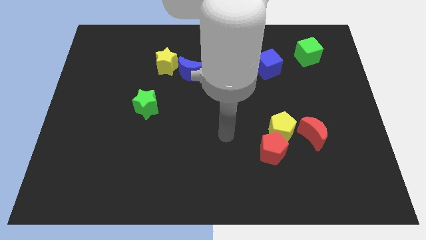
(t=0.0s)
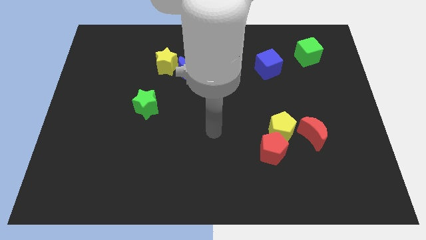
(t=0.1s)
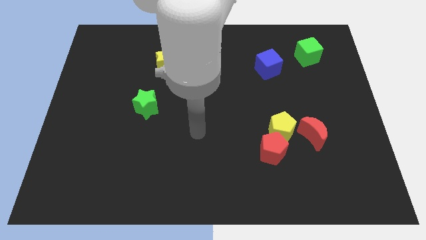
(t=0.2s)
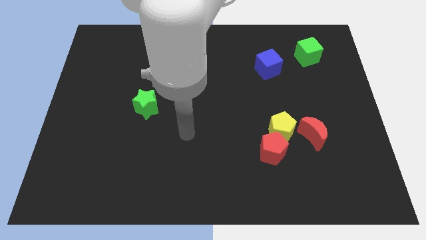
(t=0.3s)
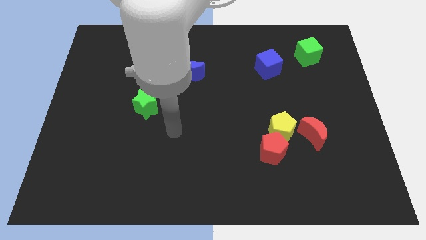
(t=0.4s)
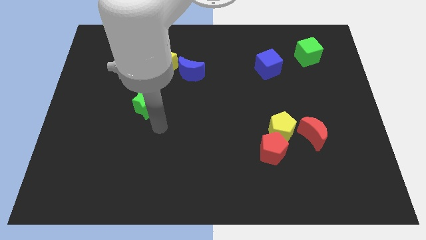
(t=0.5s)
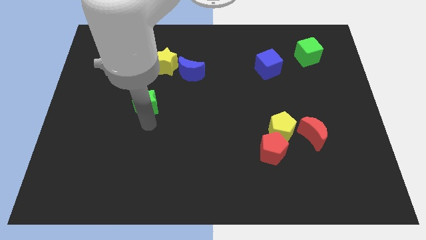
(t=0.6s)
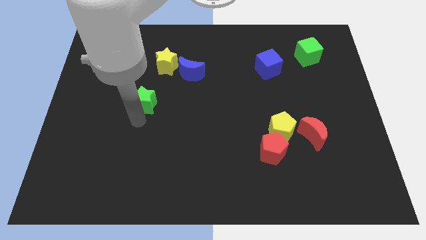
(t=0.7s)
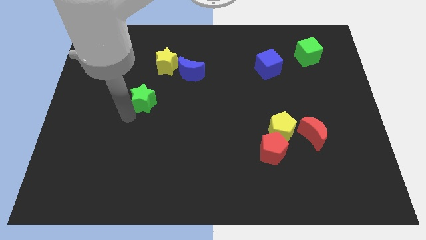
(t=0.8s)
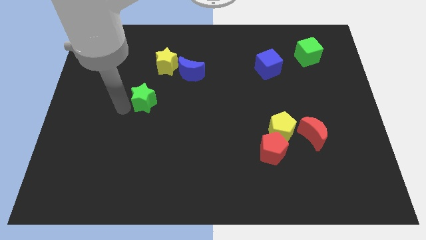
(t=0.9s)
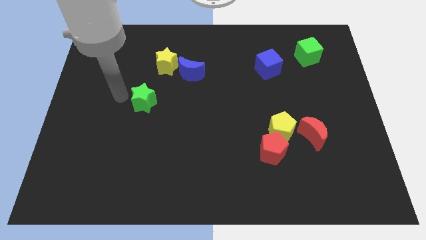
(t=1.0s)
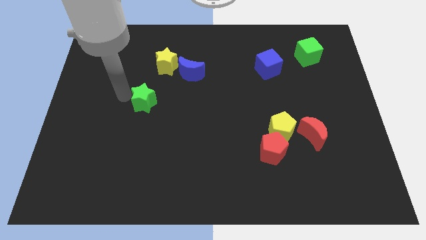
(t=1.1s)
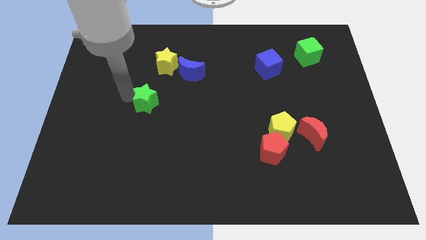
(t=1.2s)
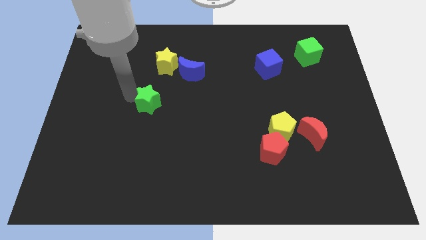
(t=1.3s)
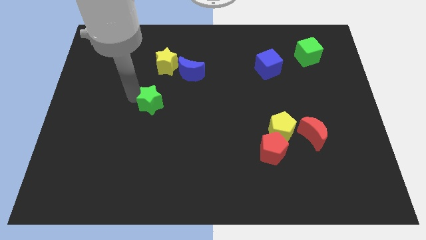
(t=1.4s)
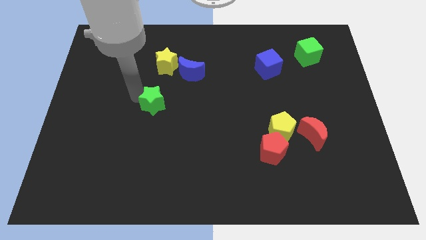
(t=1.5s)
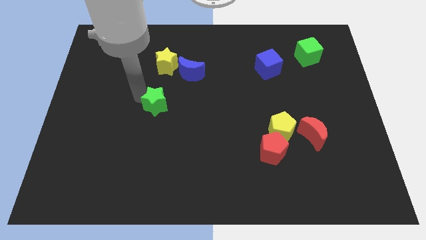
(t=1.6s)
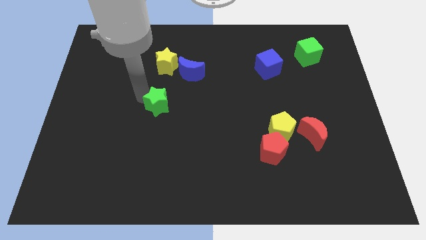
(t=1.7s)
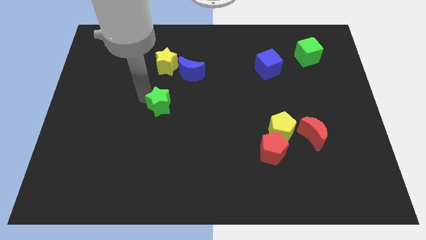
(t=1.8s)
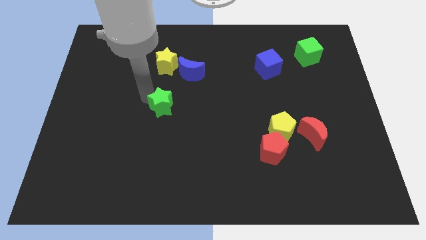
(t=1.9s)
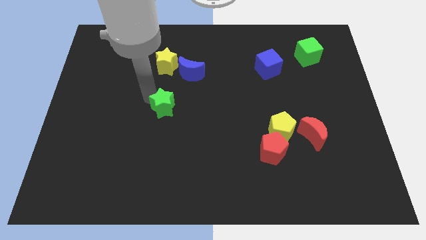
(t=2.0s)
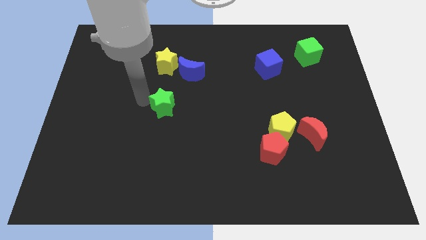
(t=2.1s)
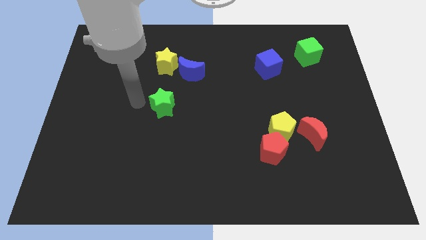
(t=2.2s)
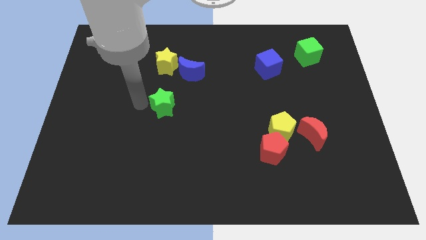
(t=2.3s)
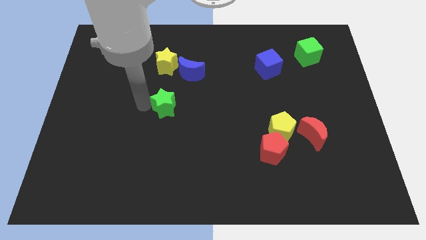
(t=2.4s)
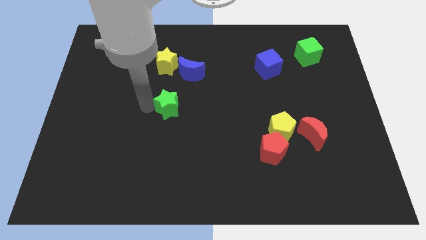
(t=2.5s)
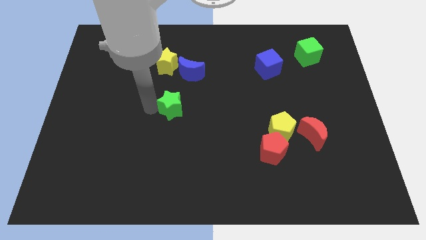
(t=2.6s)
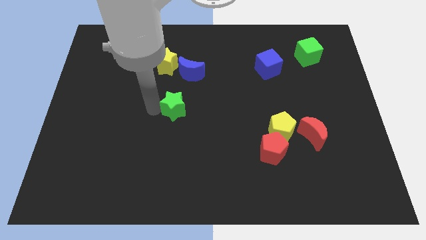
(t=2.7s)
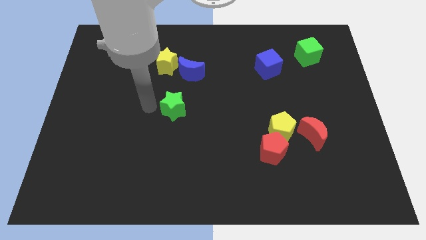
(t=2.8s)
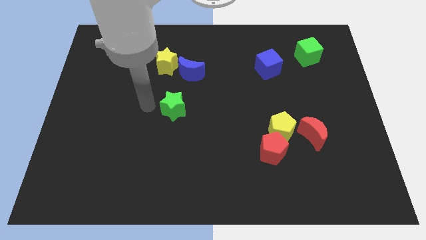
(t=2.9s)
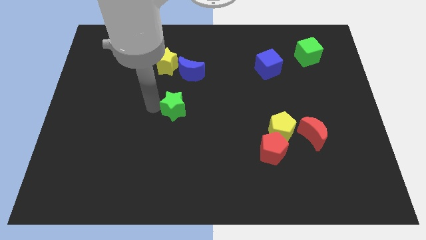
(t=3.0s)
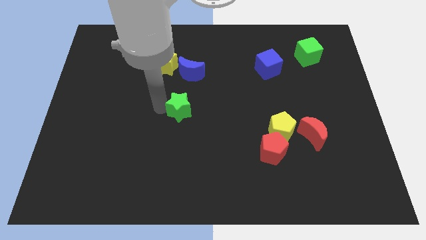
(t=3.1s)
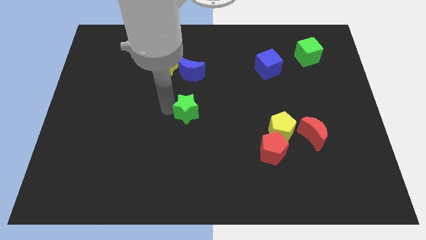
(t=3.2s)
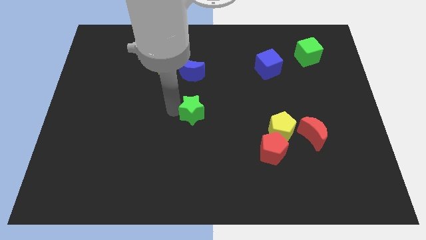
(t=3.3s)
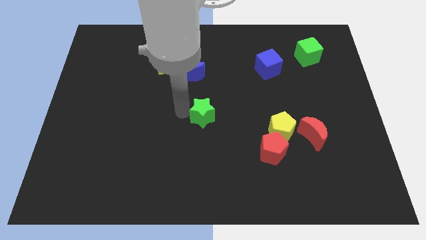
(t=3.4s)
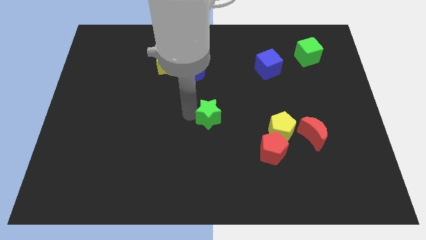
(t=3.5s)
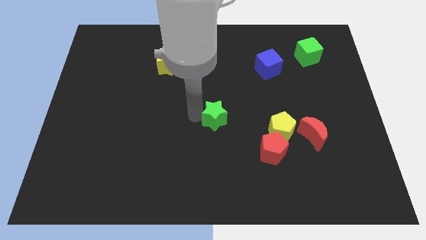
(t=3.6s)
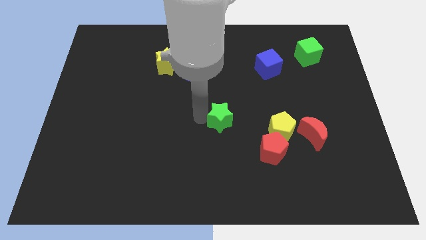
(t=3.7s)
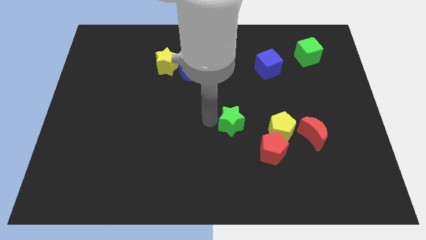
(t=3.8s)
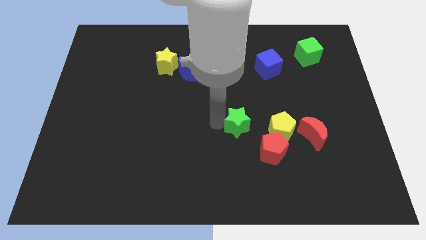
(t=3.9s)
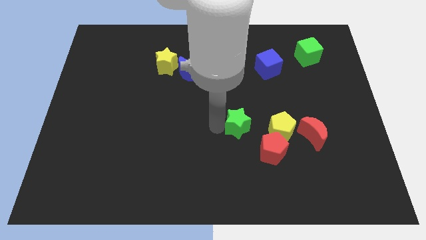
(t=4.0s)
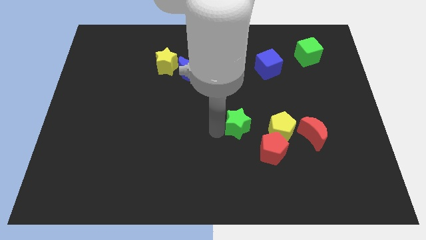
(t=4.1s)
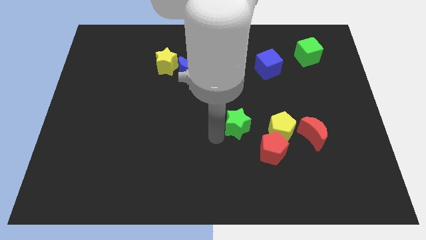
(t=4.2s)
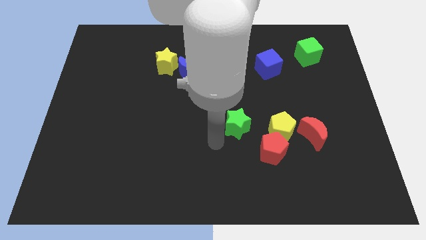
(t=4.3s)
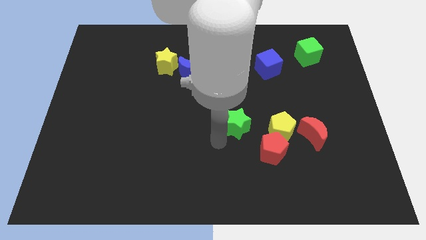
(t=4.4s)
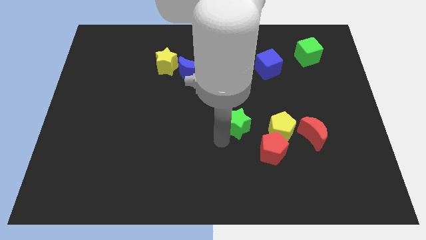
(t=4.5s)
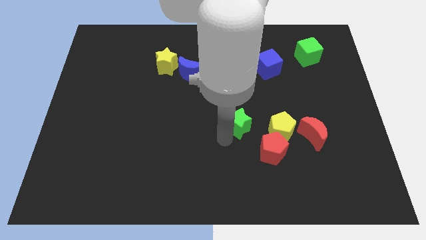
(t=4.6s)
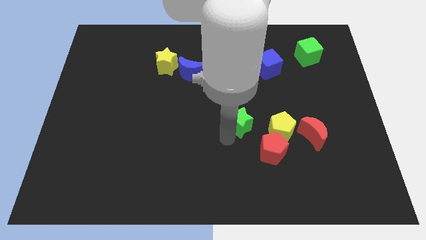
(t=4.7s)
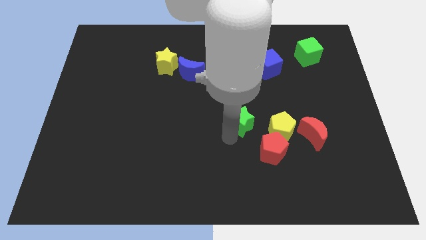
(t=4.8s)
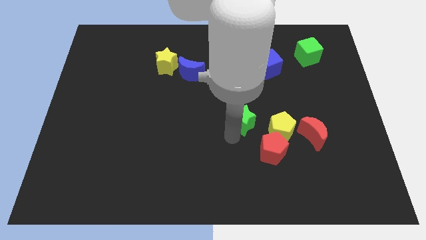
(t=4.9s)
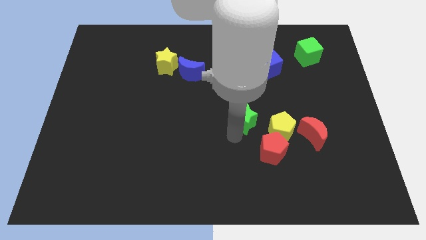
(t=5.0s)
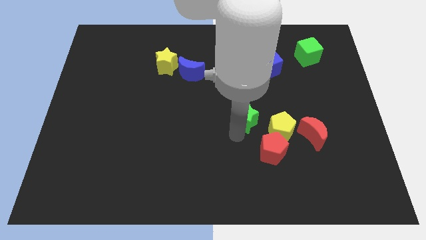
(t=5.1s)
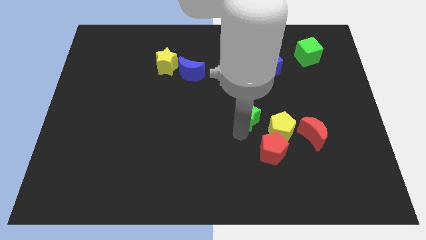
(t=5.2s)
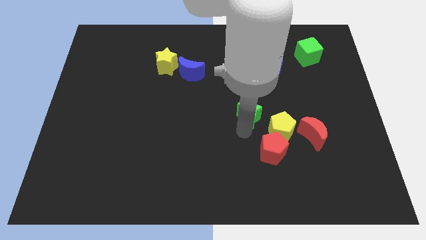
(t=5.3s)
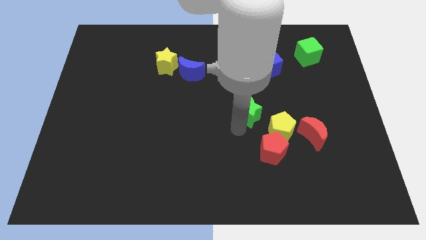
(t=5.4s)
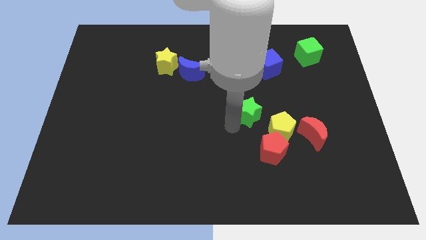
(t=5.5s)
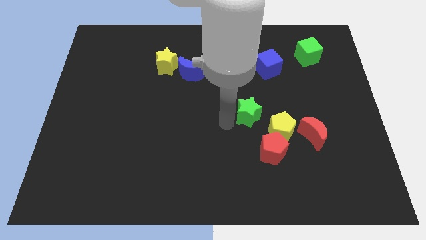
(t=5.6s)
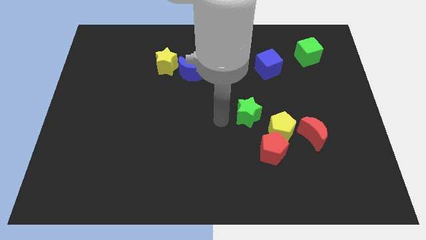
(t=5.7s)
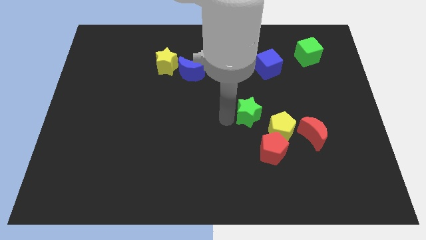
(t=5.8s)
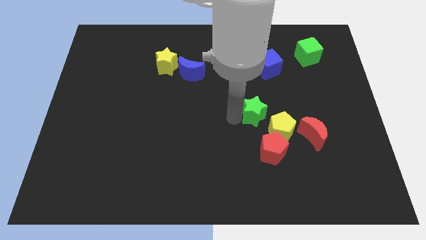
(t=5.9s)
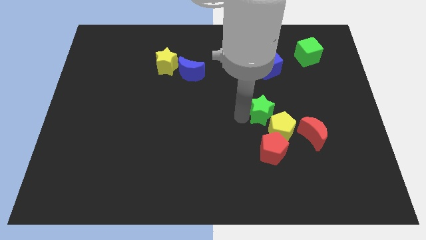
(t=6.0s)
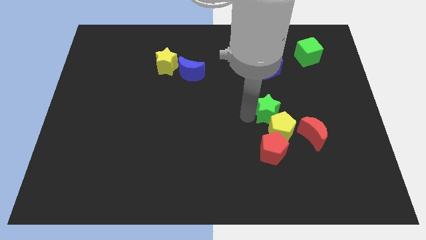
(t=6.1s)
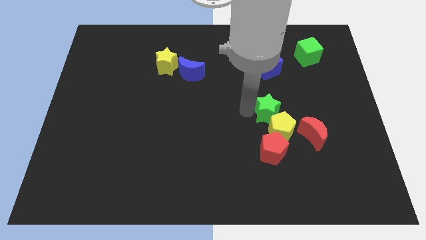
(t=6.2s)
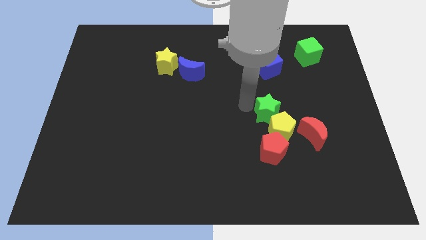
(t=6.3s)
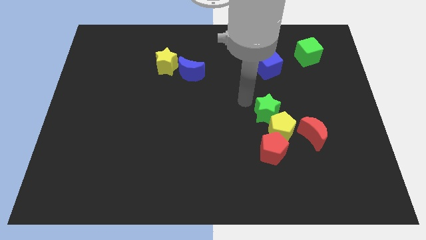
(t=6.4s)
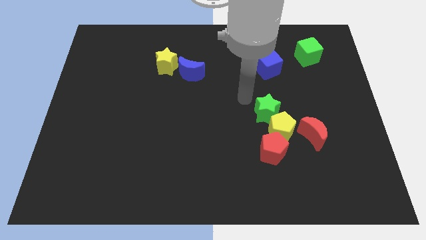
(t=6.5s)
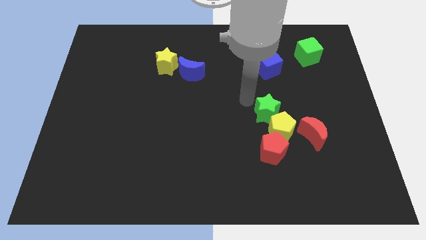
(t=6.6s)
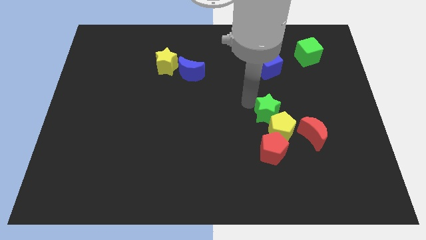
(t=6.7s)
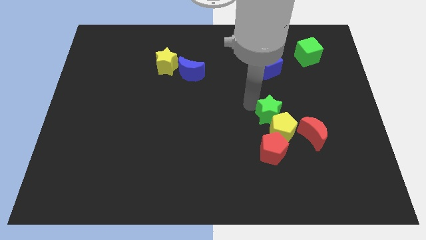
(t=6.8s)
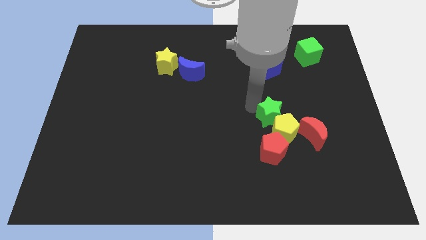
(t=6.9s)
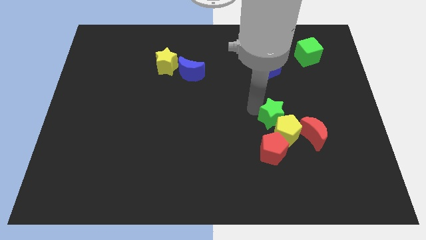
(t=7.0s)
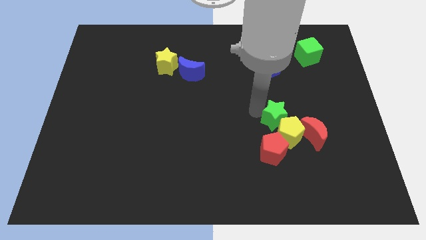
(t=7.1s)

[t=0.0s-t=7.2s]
push the green star to the top right side of the red pentagon

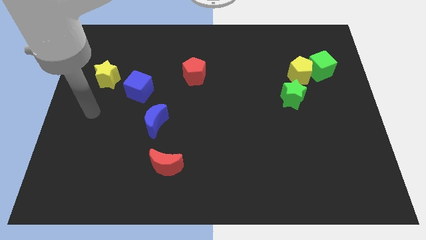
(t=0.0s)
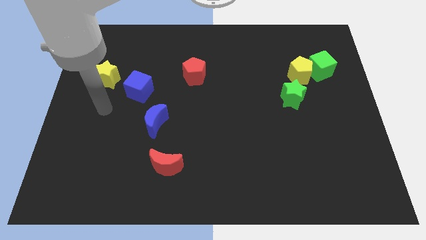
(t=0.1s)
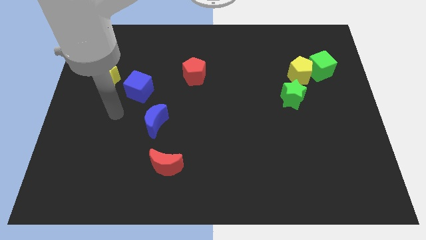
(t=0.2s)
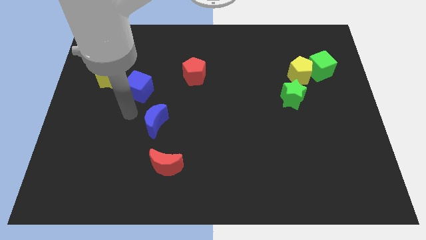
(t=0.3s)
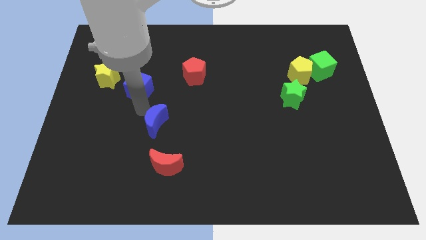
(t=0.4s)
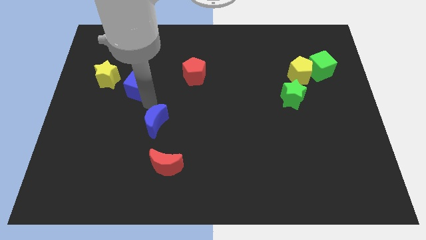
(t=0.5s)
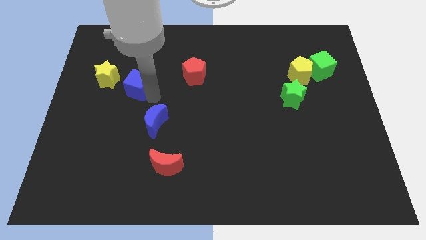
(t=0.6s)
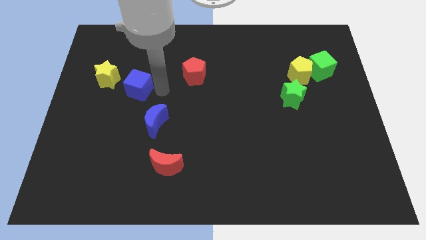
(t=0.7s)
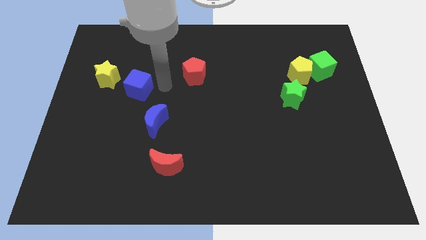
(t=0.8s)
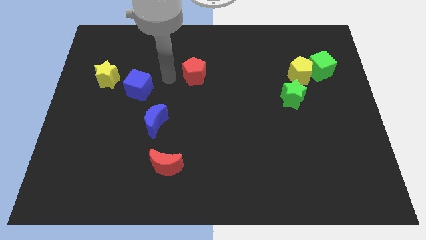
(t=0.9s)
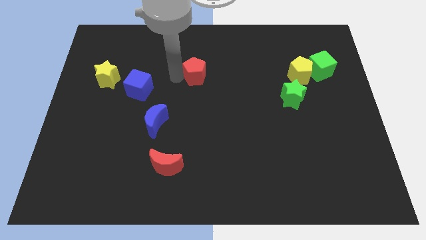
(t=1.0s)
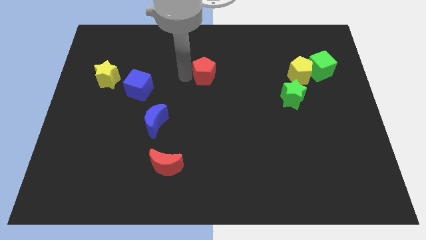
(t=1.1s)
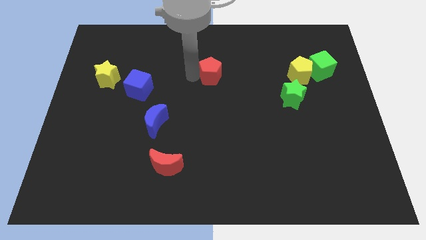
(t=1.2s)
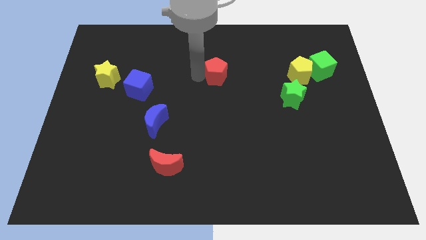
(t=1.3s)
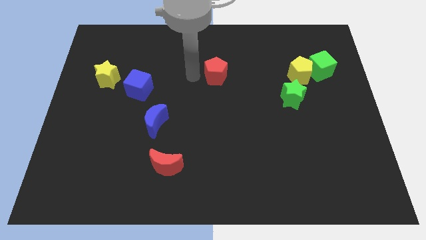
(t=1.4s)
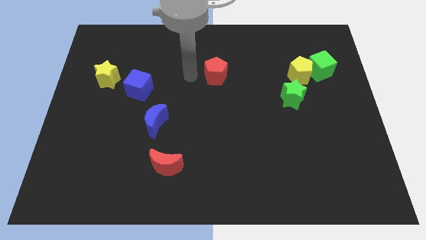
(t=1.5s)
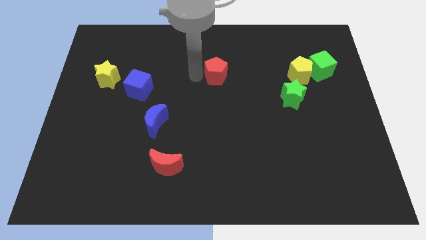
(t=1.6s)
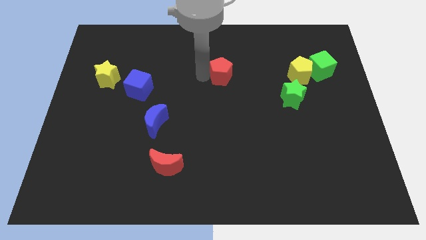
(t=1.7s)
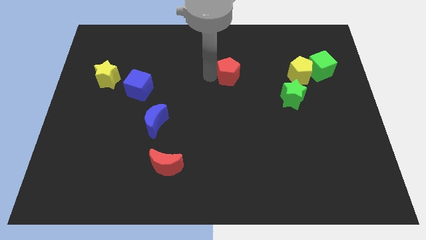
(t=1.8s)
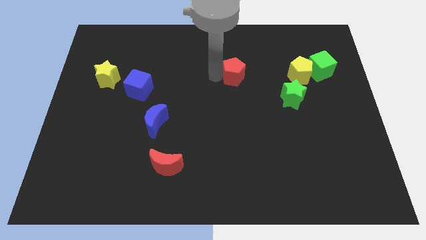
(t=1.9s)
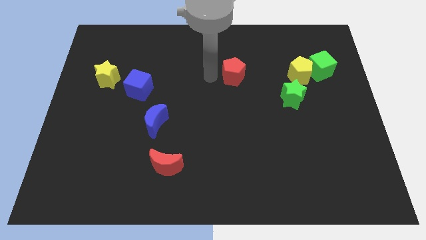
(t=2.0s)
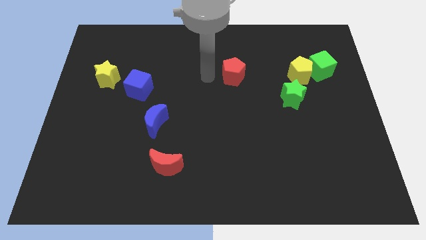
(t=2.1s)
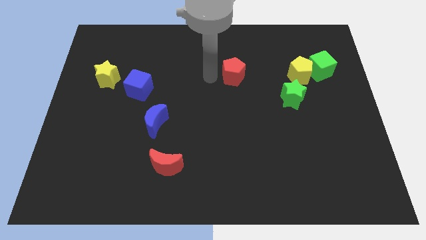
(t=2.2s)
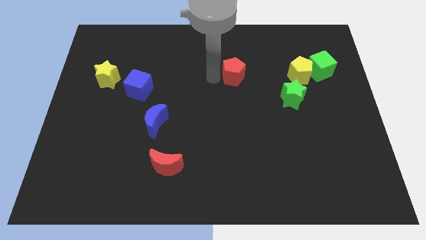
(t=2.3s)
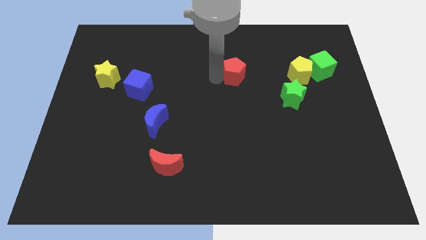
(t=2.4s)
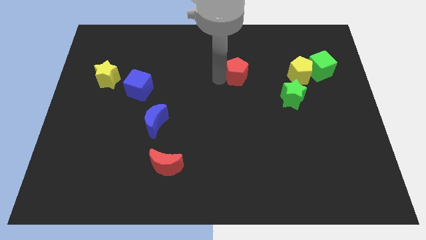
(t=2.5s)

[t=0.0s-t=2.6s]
slide the red pentagon to the left side of the yellow pentagon